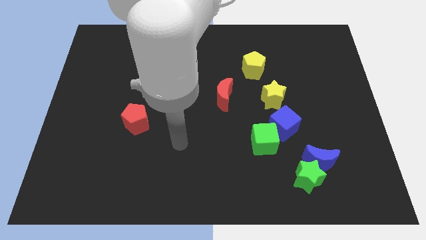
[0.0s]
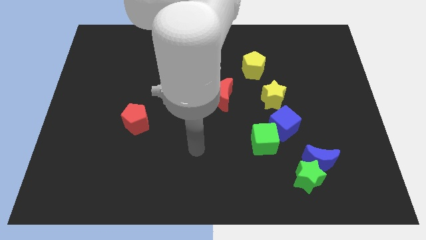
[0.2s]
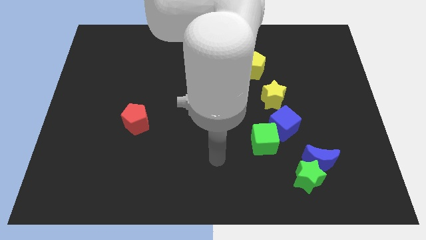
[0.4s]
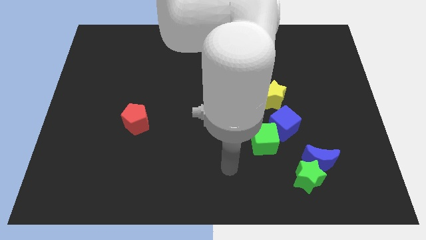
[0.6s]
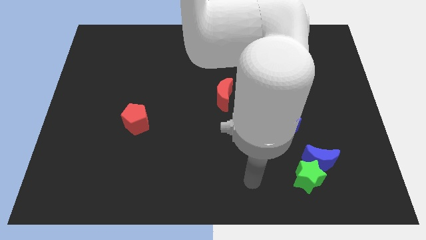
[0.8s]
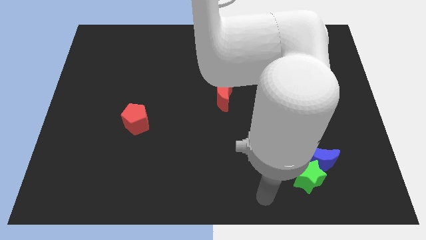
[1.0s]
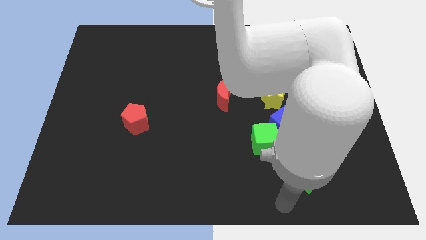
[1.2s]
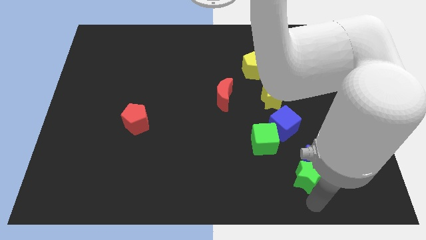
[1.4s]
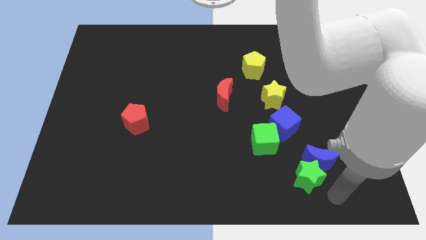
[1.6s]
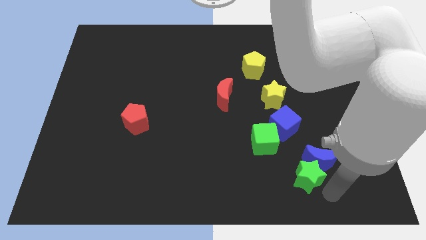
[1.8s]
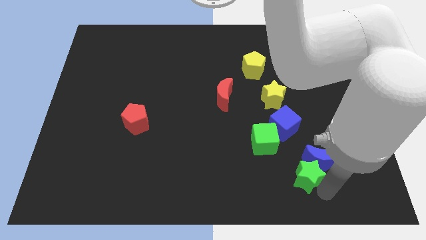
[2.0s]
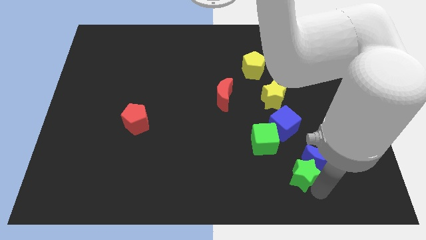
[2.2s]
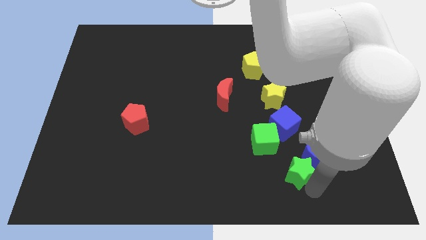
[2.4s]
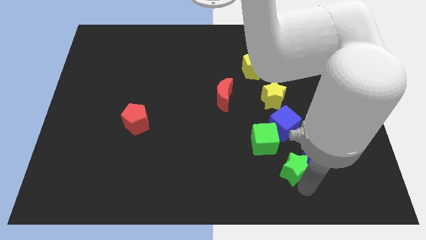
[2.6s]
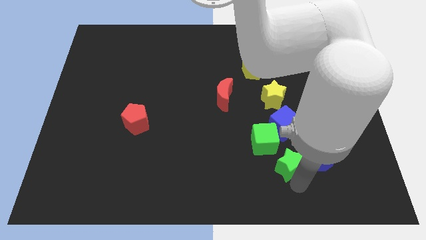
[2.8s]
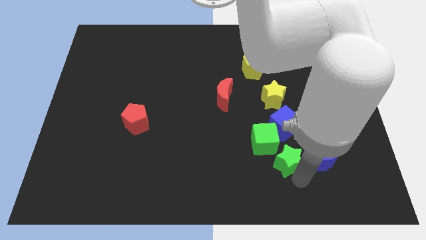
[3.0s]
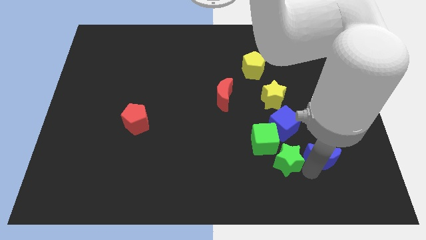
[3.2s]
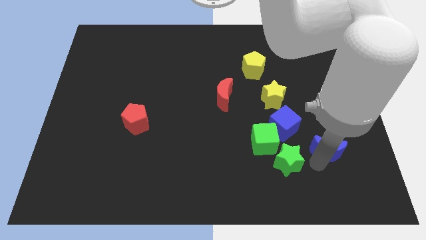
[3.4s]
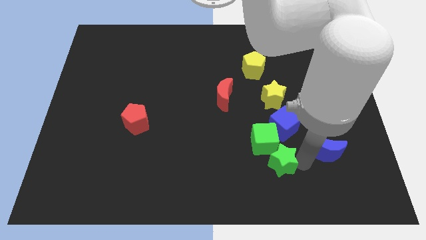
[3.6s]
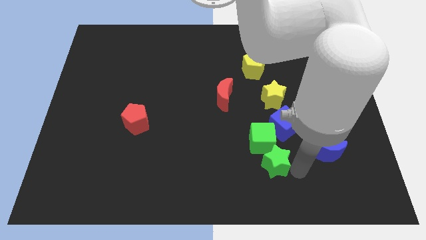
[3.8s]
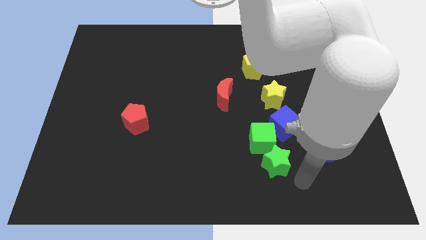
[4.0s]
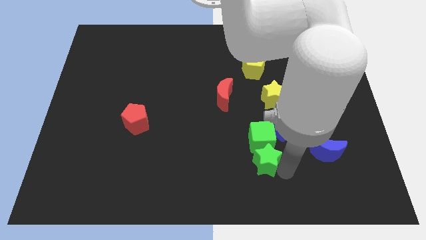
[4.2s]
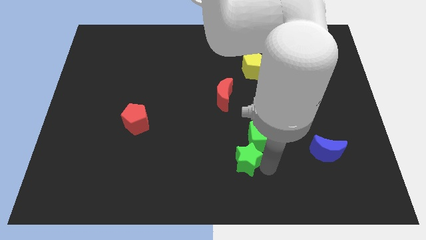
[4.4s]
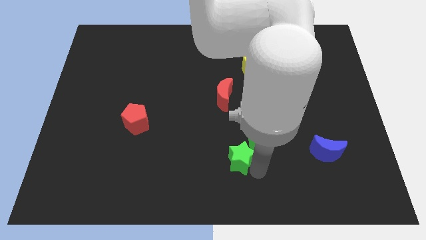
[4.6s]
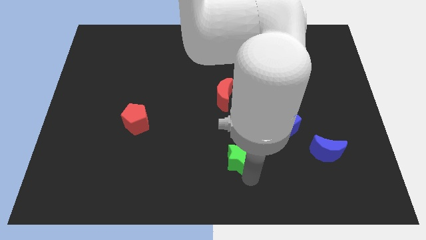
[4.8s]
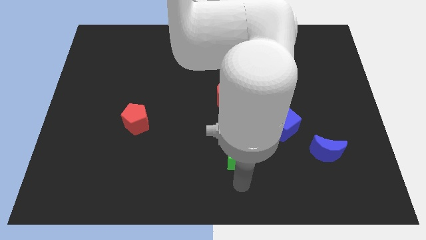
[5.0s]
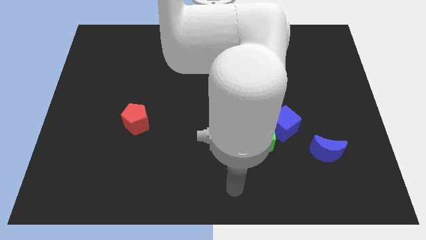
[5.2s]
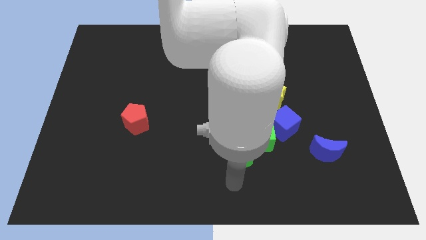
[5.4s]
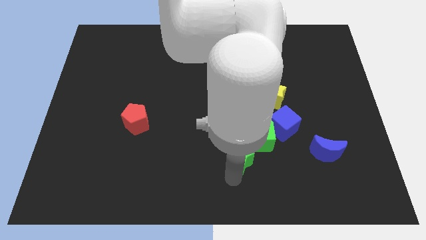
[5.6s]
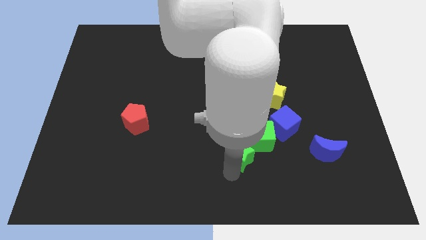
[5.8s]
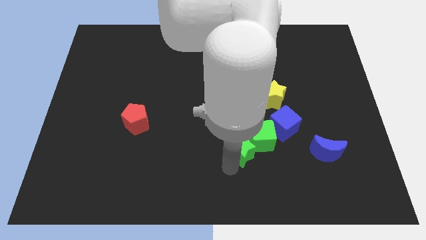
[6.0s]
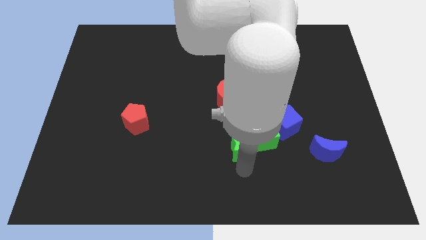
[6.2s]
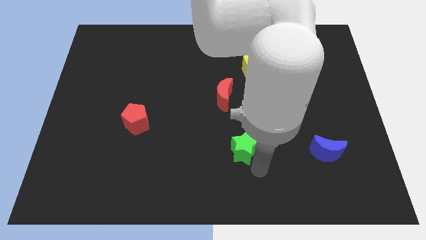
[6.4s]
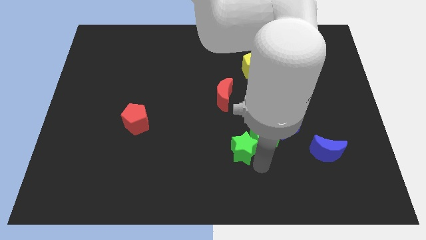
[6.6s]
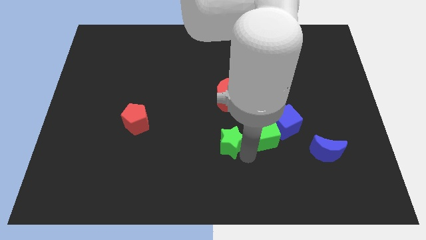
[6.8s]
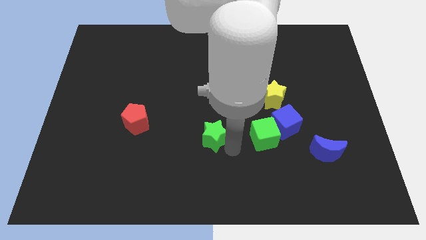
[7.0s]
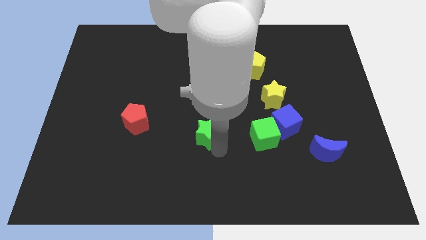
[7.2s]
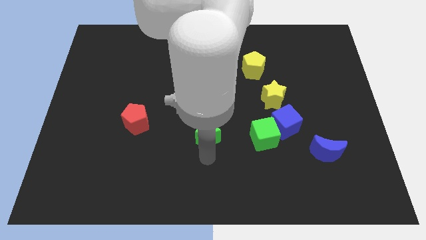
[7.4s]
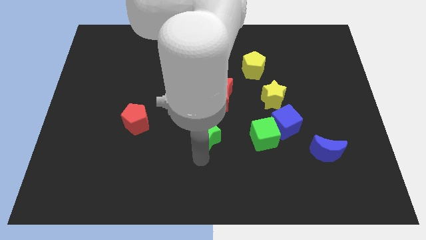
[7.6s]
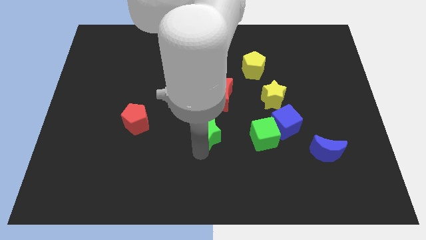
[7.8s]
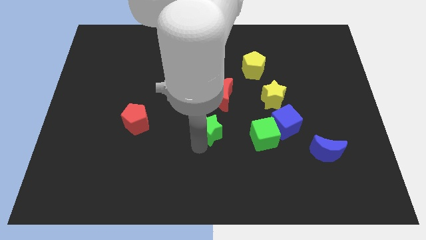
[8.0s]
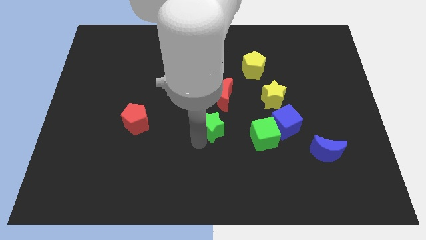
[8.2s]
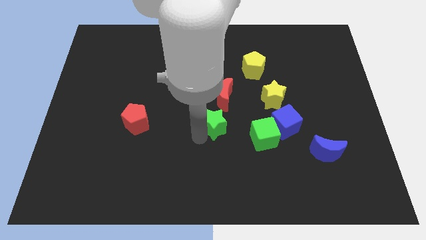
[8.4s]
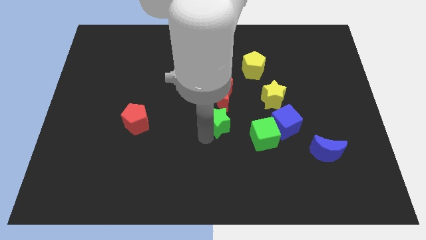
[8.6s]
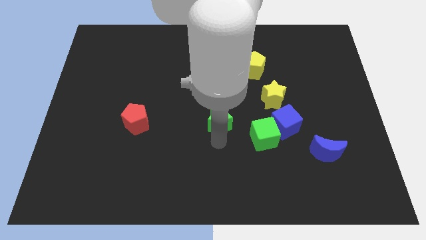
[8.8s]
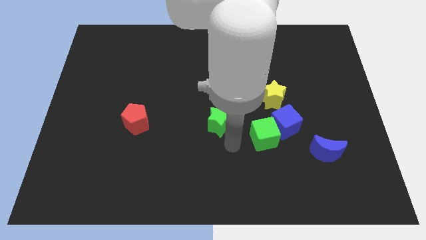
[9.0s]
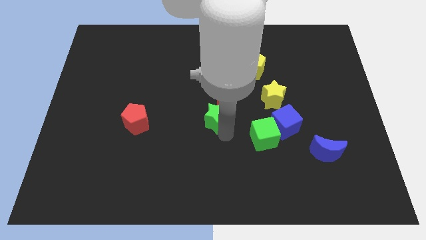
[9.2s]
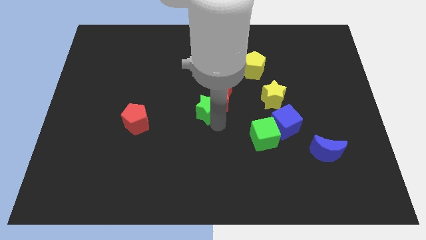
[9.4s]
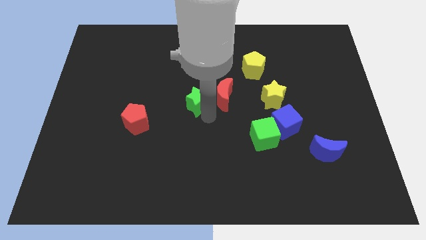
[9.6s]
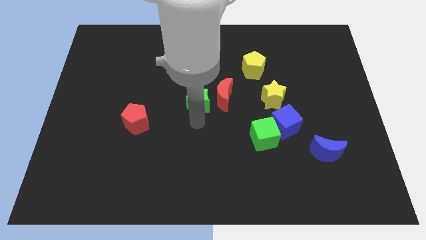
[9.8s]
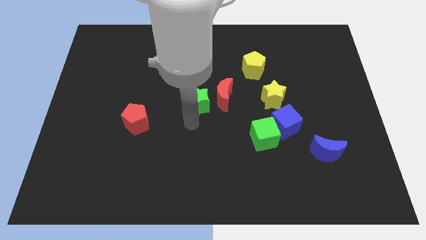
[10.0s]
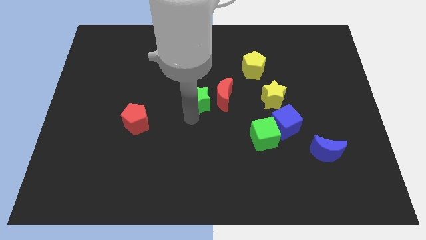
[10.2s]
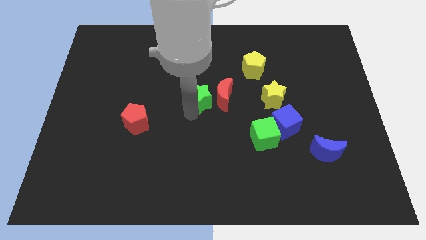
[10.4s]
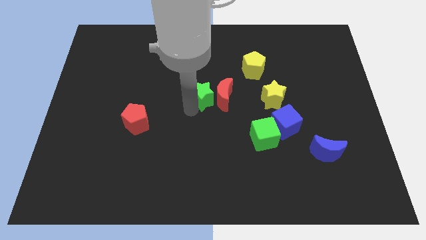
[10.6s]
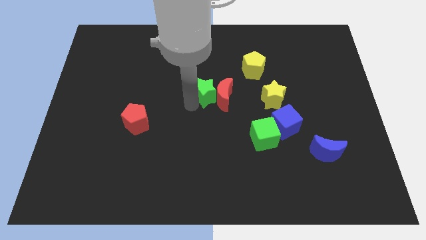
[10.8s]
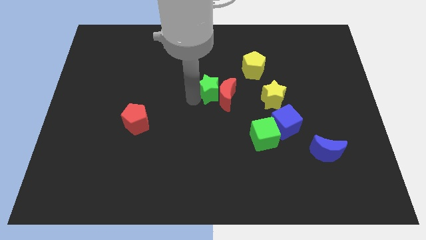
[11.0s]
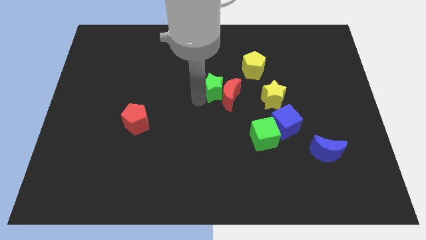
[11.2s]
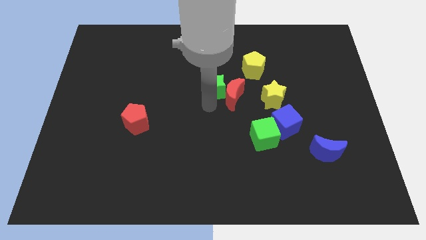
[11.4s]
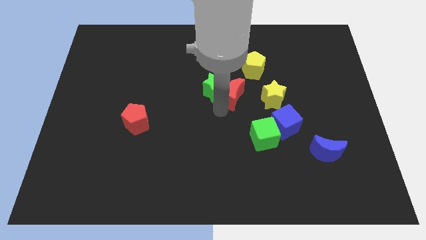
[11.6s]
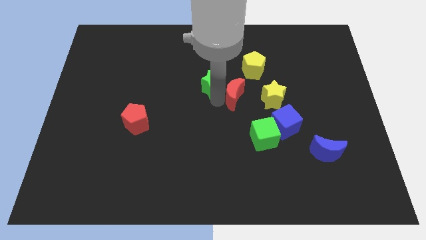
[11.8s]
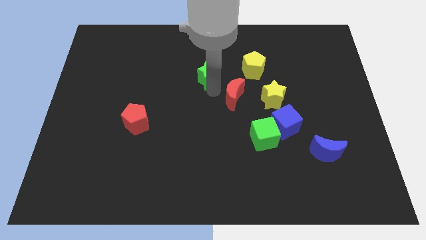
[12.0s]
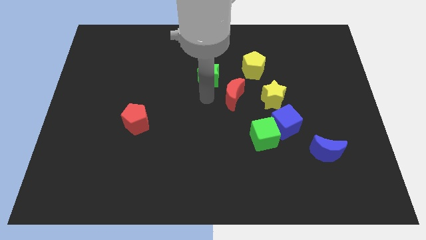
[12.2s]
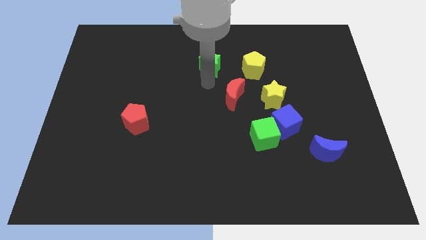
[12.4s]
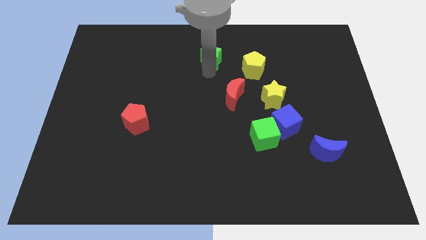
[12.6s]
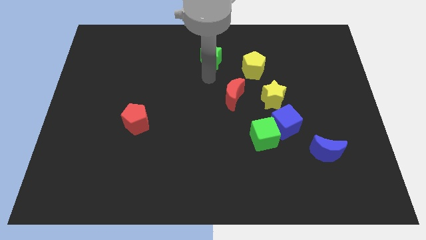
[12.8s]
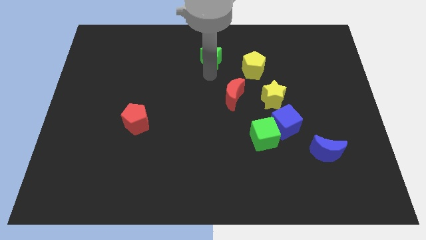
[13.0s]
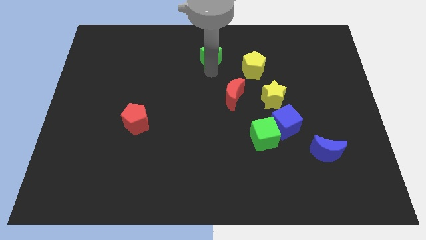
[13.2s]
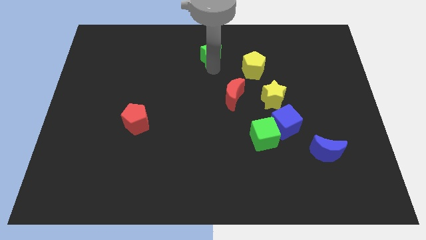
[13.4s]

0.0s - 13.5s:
put the green star to the top side
